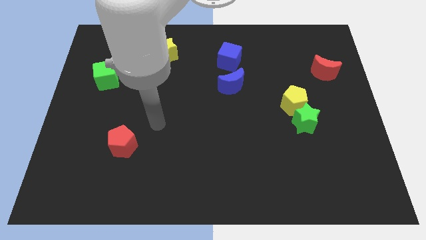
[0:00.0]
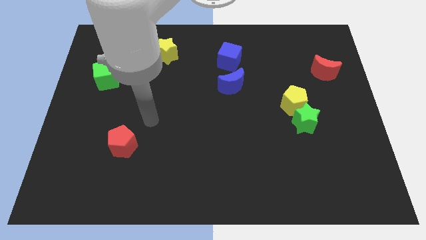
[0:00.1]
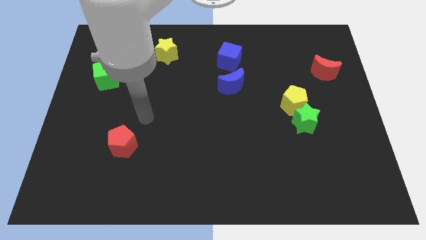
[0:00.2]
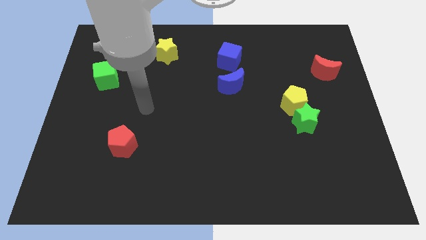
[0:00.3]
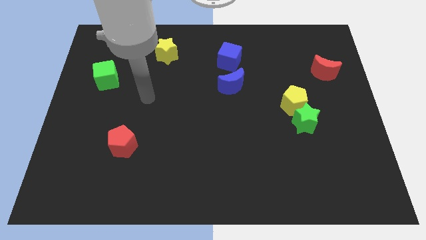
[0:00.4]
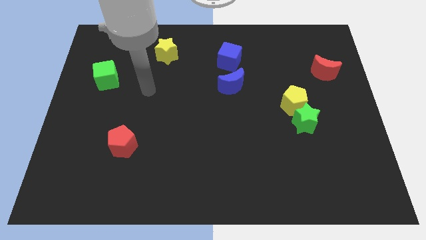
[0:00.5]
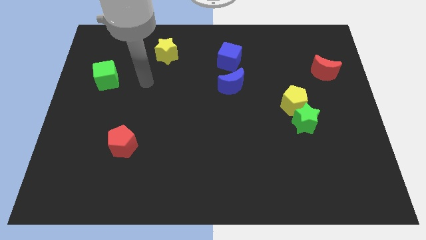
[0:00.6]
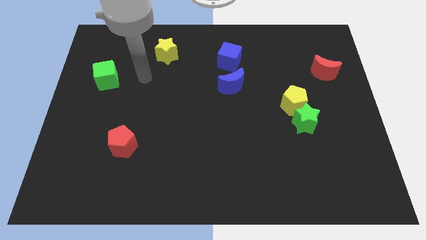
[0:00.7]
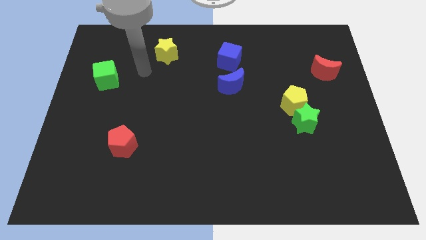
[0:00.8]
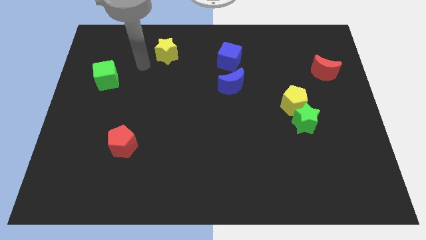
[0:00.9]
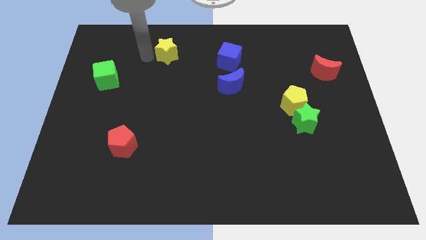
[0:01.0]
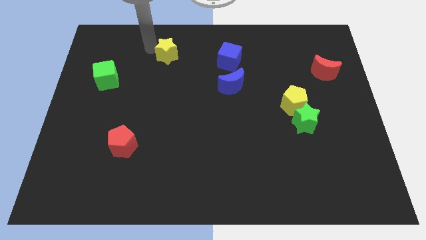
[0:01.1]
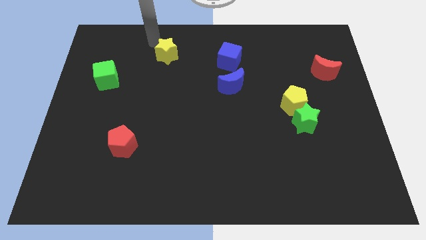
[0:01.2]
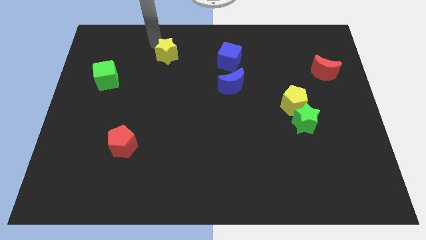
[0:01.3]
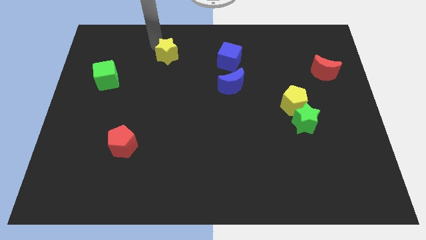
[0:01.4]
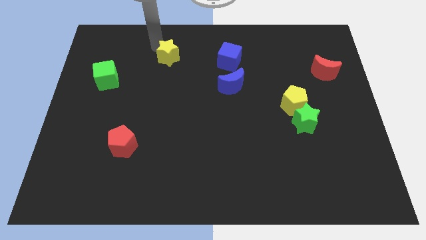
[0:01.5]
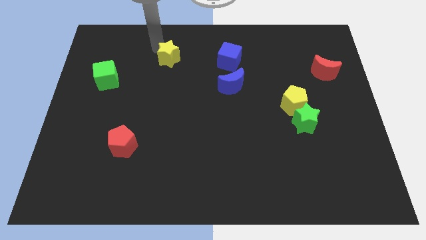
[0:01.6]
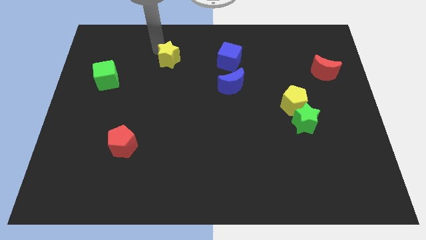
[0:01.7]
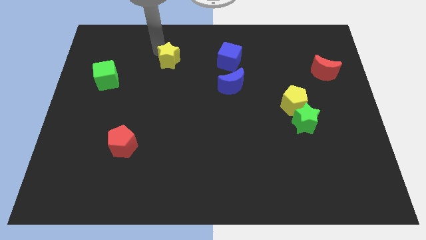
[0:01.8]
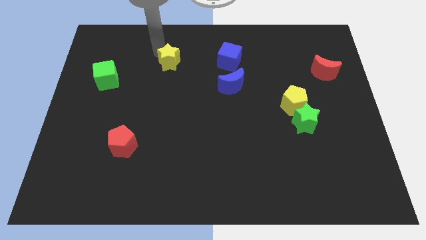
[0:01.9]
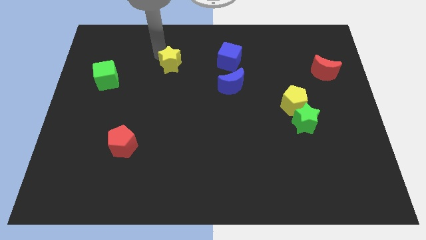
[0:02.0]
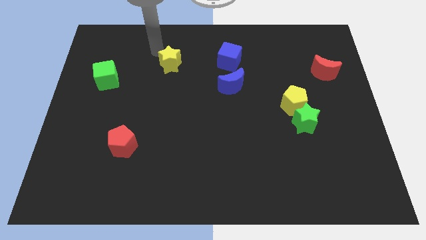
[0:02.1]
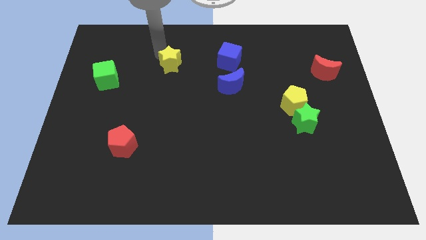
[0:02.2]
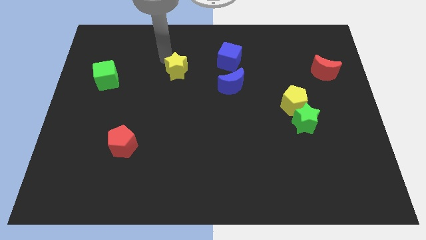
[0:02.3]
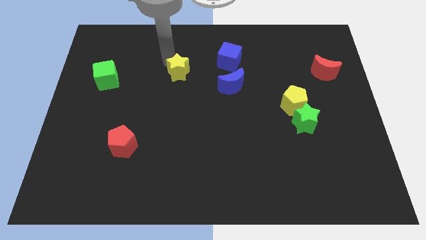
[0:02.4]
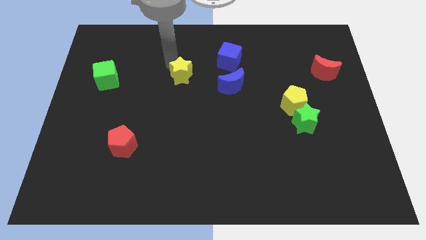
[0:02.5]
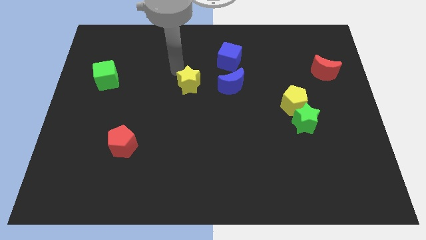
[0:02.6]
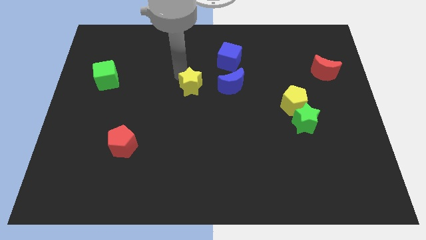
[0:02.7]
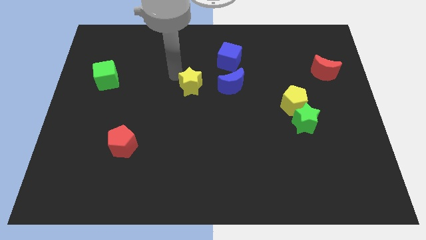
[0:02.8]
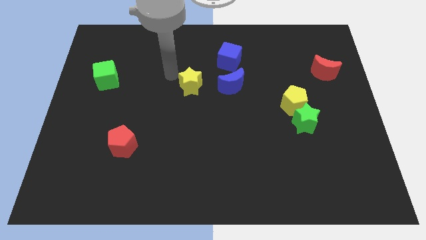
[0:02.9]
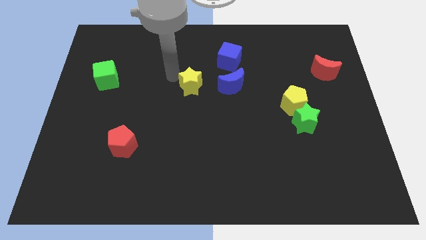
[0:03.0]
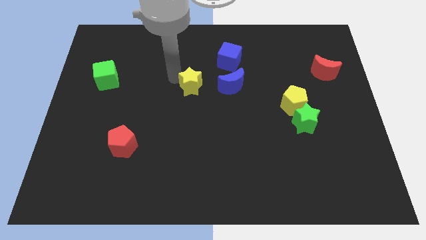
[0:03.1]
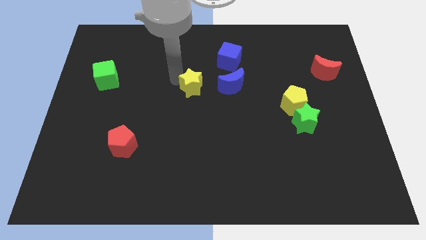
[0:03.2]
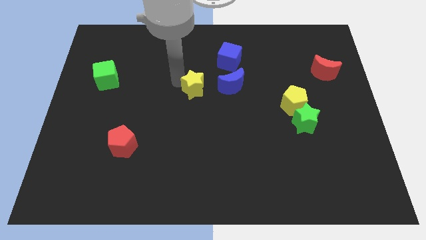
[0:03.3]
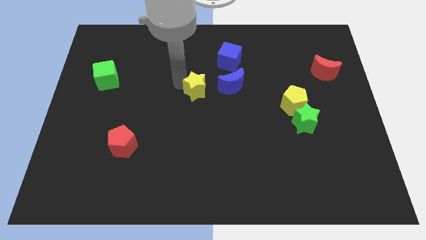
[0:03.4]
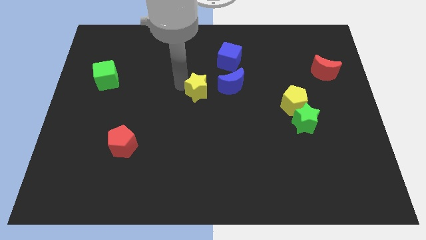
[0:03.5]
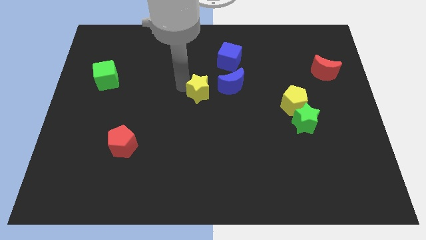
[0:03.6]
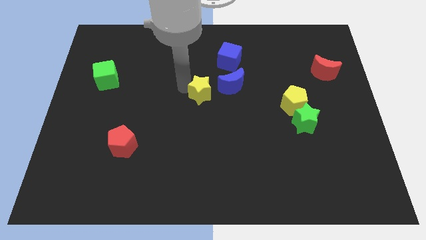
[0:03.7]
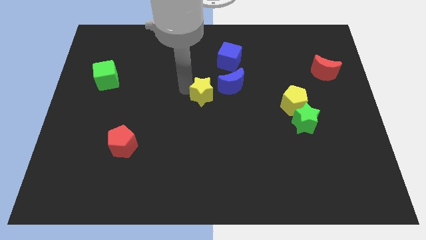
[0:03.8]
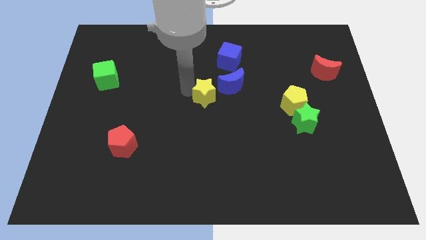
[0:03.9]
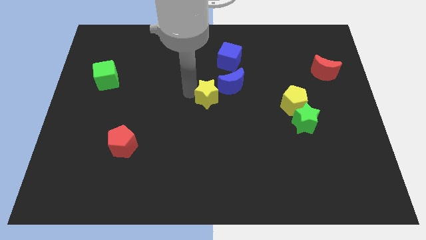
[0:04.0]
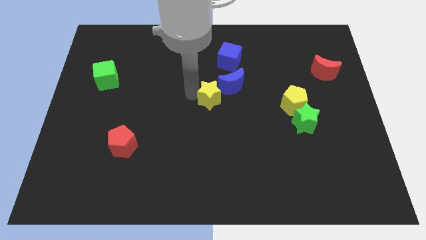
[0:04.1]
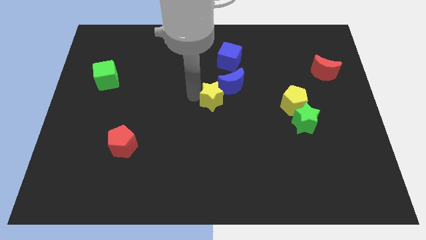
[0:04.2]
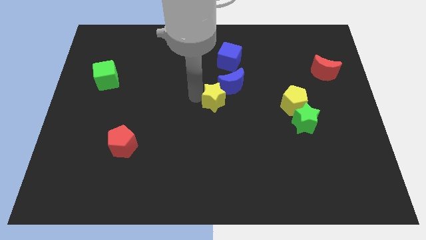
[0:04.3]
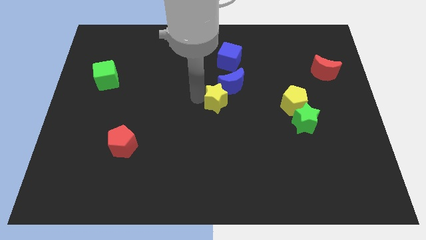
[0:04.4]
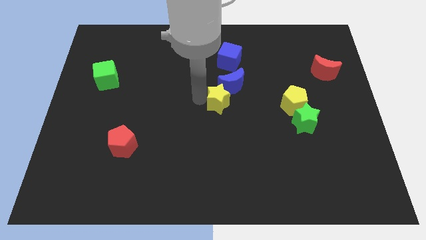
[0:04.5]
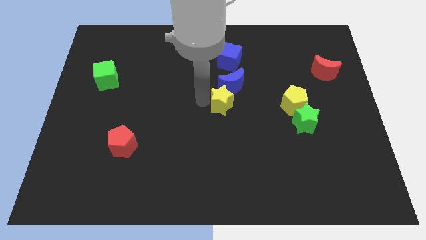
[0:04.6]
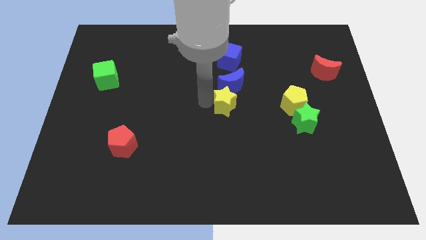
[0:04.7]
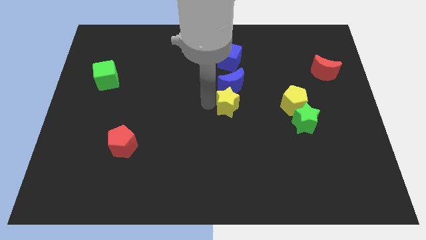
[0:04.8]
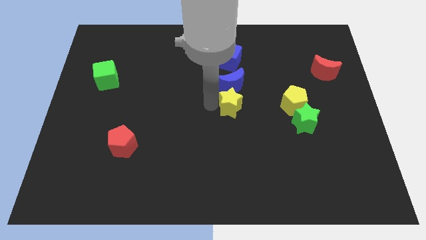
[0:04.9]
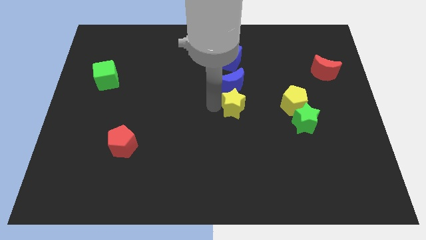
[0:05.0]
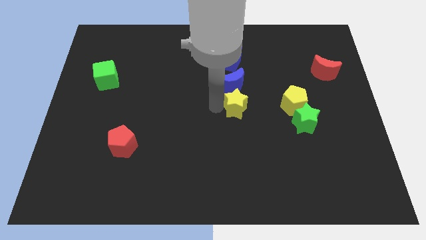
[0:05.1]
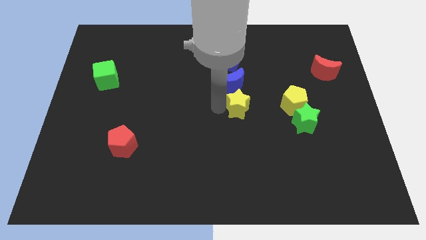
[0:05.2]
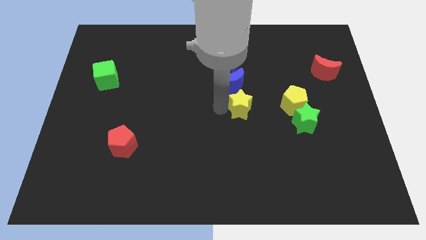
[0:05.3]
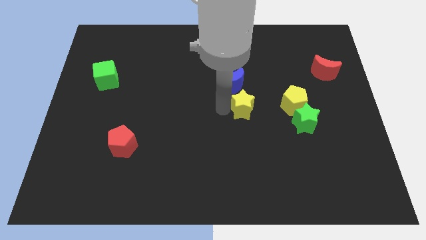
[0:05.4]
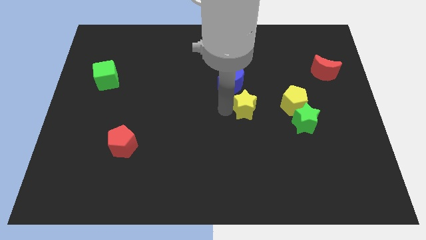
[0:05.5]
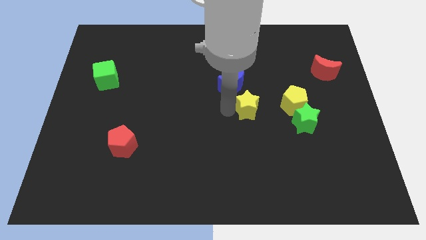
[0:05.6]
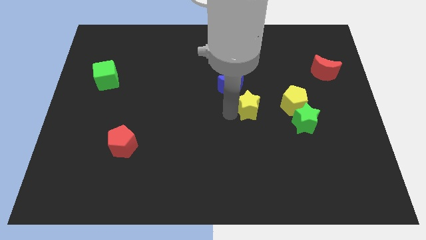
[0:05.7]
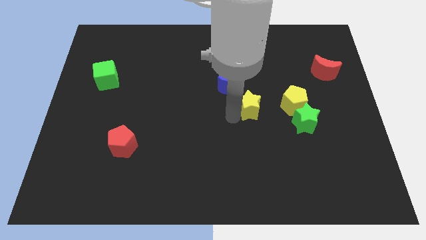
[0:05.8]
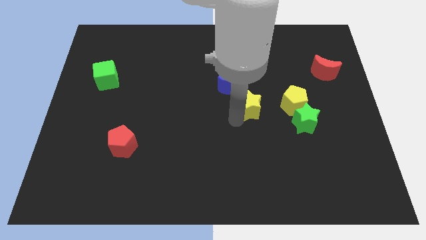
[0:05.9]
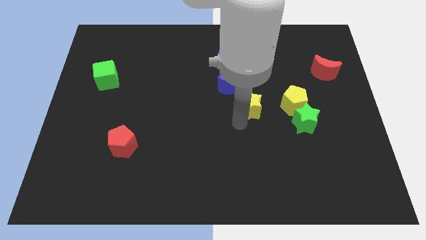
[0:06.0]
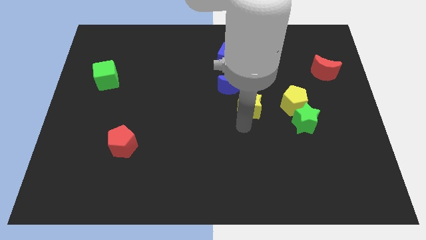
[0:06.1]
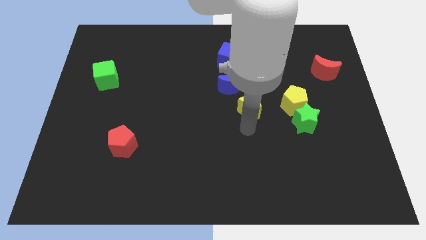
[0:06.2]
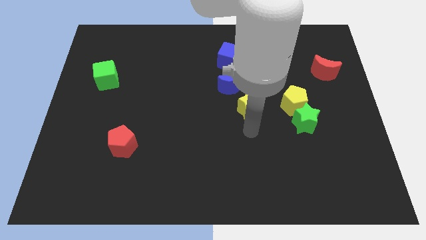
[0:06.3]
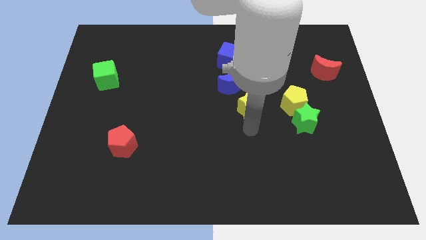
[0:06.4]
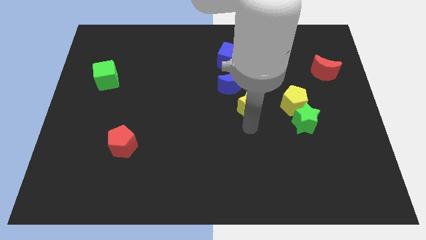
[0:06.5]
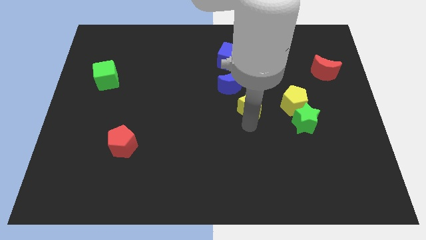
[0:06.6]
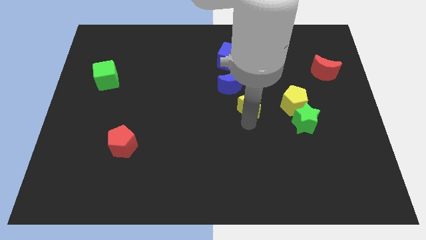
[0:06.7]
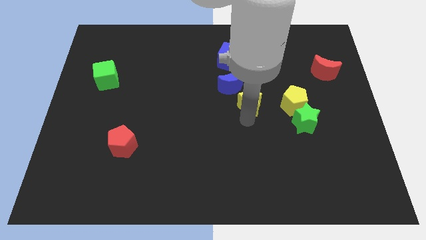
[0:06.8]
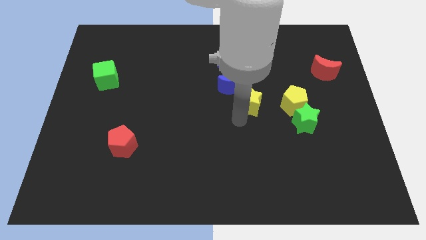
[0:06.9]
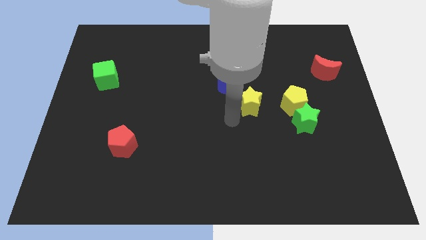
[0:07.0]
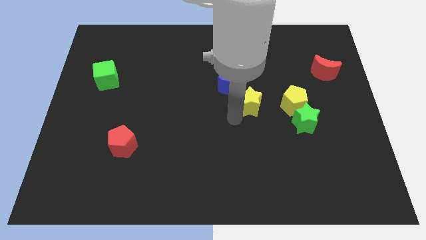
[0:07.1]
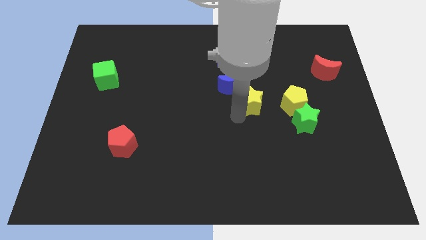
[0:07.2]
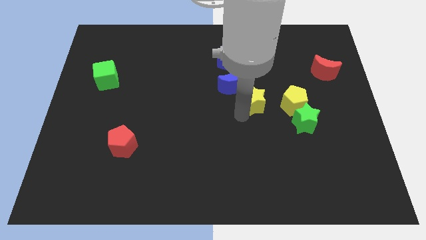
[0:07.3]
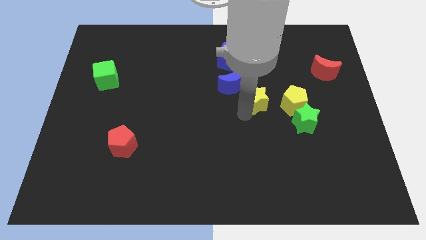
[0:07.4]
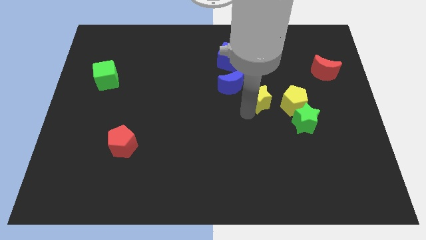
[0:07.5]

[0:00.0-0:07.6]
push the yellow star just right of the blue moon
